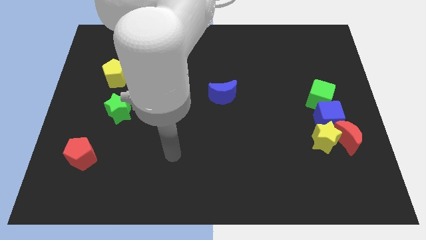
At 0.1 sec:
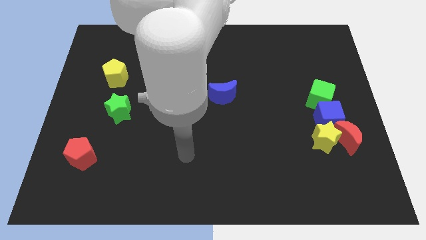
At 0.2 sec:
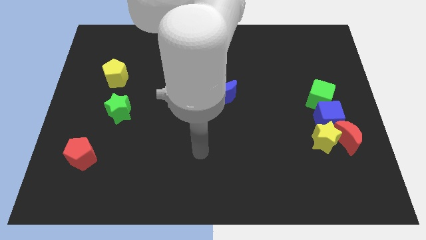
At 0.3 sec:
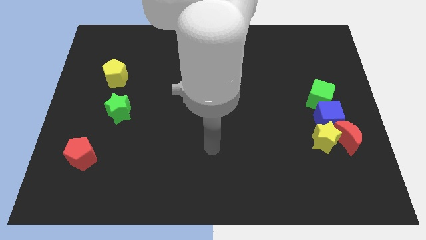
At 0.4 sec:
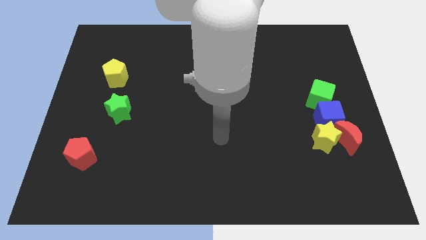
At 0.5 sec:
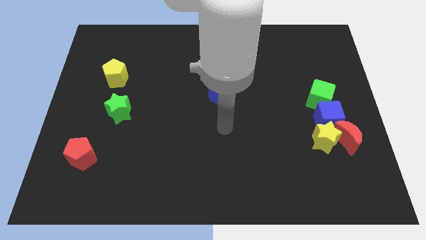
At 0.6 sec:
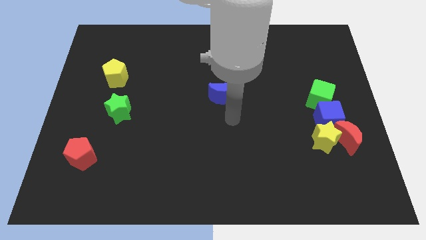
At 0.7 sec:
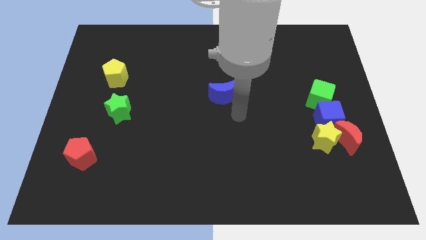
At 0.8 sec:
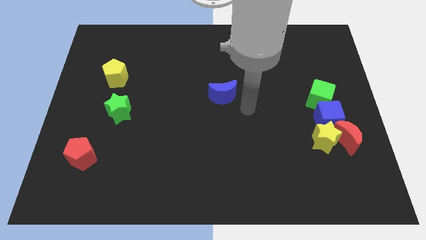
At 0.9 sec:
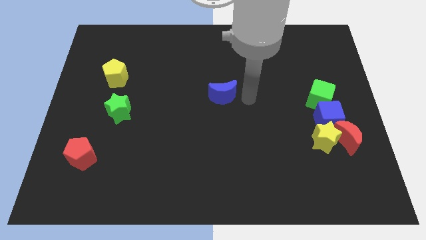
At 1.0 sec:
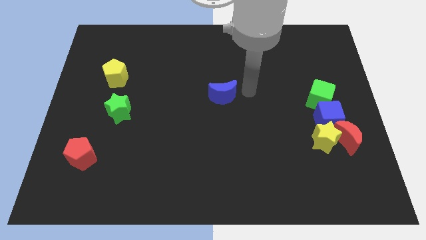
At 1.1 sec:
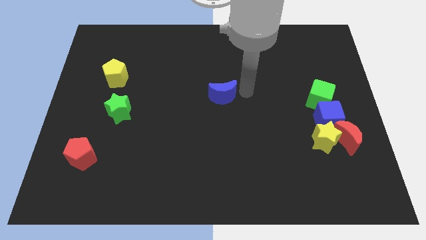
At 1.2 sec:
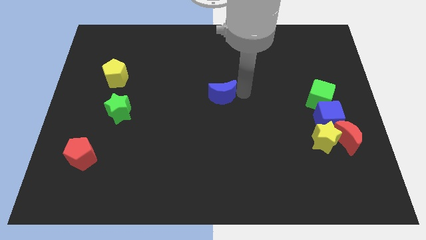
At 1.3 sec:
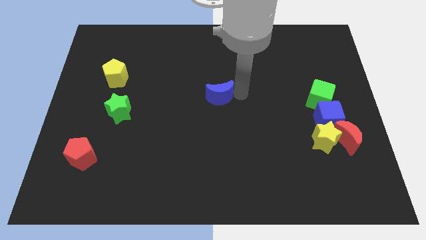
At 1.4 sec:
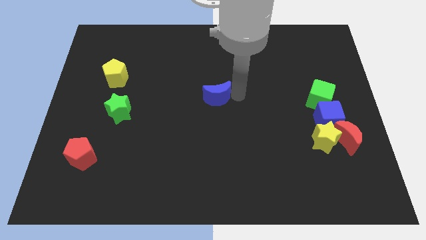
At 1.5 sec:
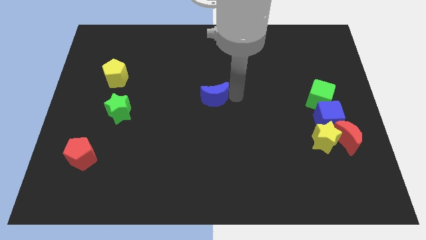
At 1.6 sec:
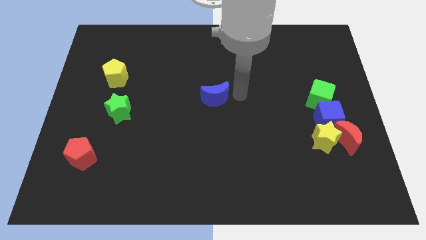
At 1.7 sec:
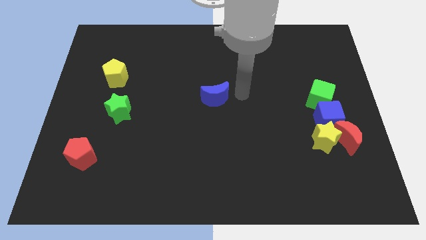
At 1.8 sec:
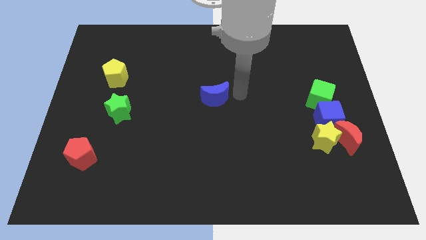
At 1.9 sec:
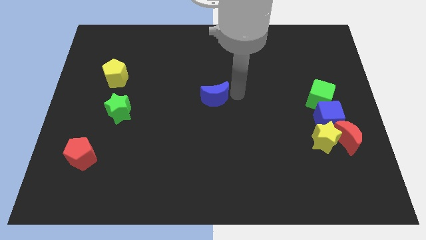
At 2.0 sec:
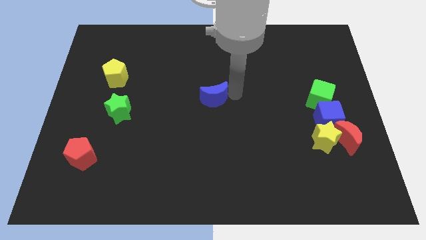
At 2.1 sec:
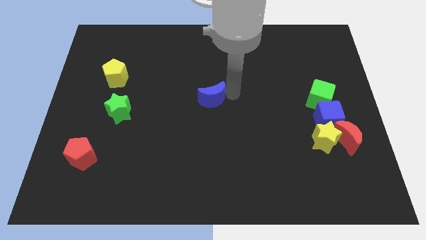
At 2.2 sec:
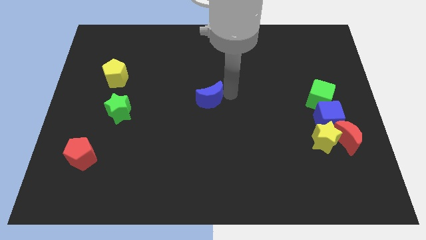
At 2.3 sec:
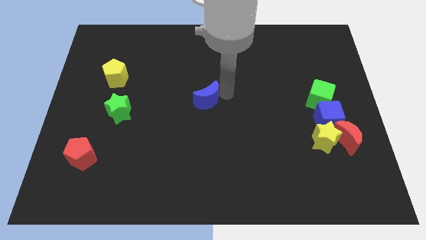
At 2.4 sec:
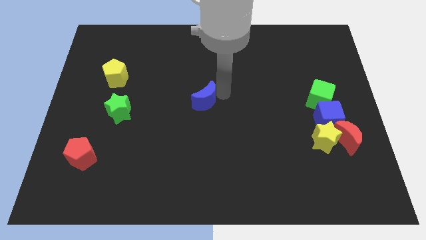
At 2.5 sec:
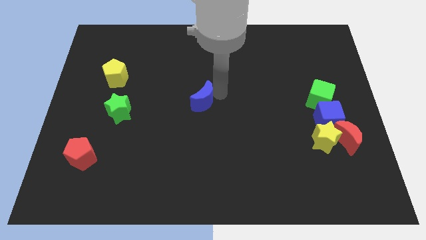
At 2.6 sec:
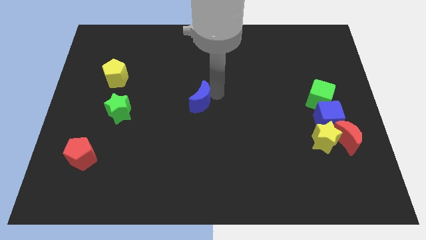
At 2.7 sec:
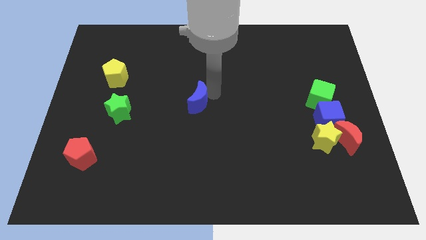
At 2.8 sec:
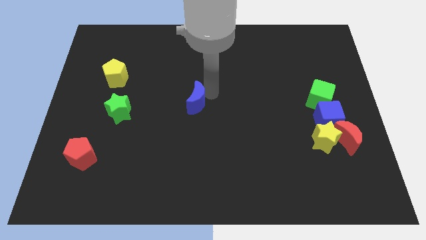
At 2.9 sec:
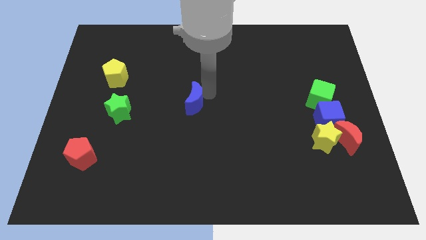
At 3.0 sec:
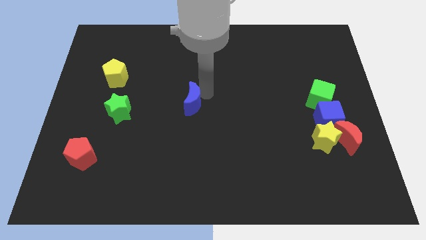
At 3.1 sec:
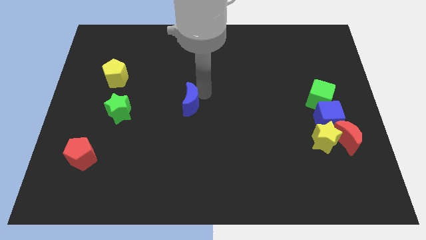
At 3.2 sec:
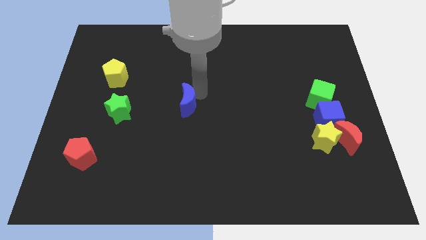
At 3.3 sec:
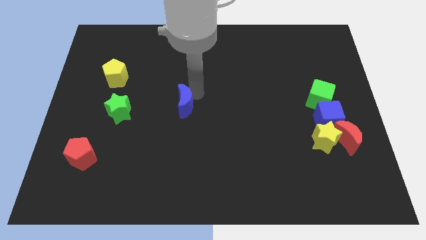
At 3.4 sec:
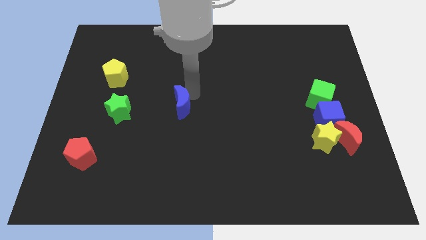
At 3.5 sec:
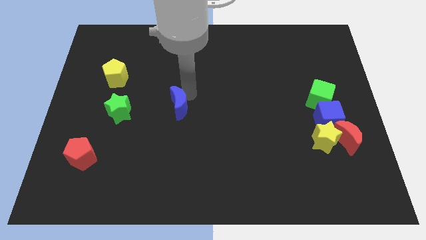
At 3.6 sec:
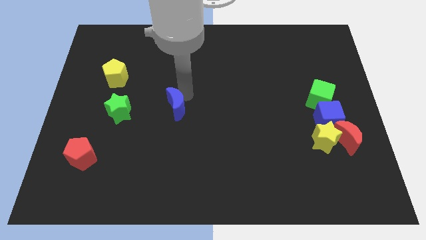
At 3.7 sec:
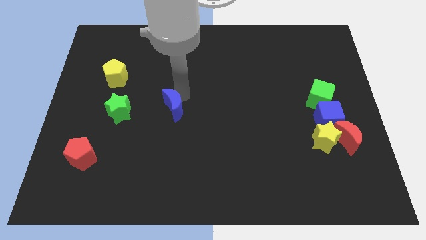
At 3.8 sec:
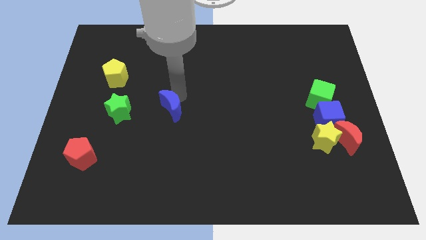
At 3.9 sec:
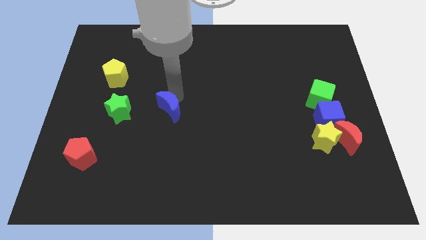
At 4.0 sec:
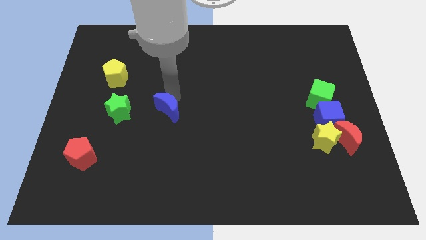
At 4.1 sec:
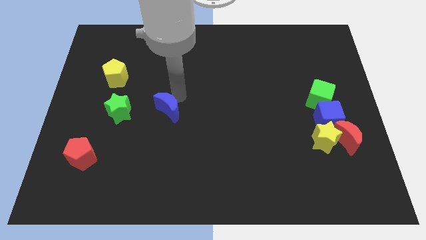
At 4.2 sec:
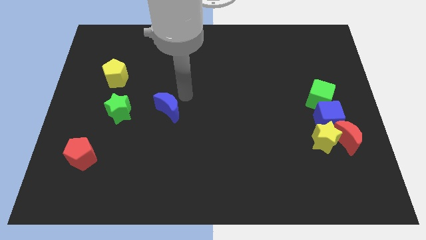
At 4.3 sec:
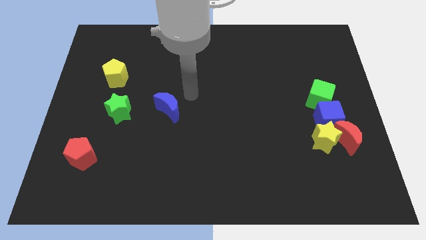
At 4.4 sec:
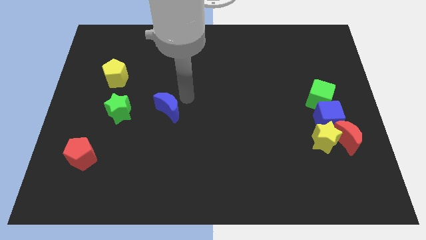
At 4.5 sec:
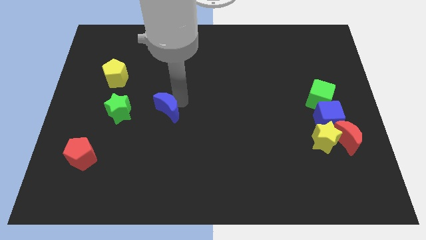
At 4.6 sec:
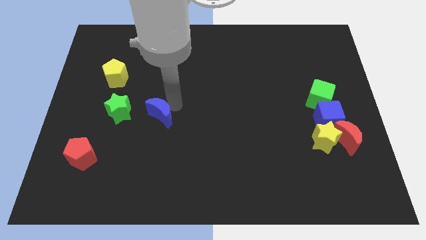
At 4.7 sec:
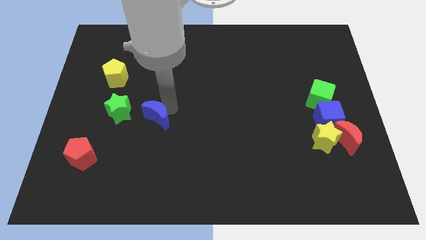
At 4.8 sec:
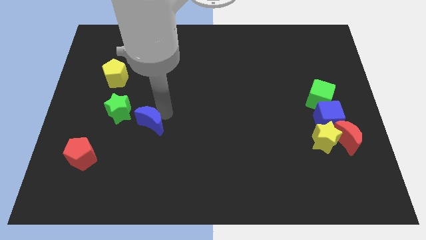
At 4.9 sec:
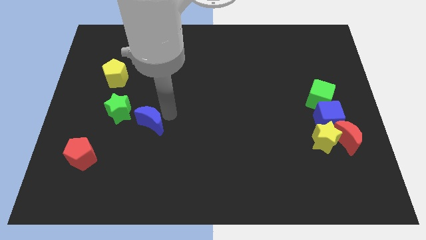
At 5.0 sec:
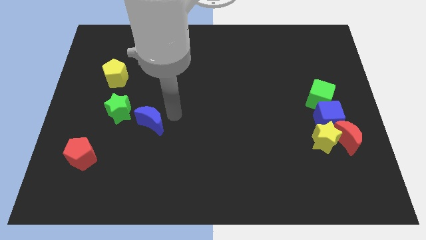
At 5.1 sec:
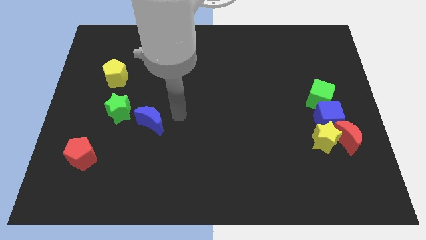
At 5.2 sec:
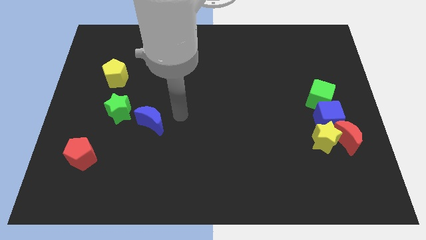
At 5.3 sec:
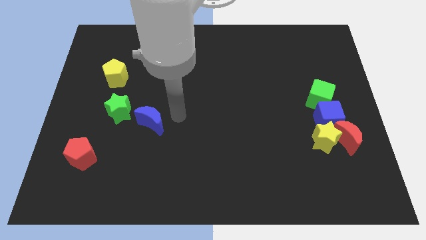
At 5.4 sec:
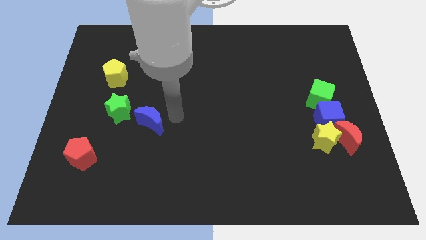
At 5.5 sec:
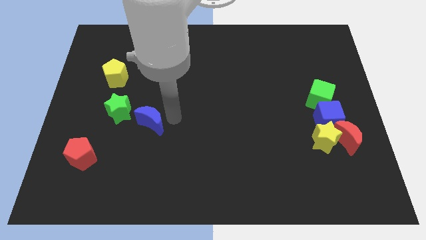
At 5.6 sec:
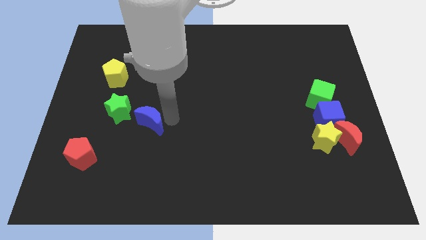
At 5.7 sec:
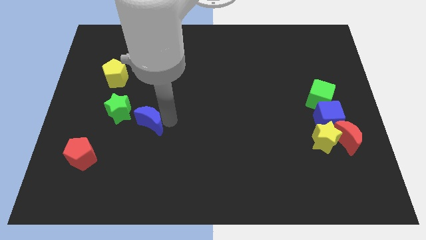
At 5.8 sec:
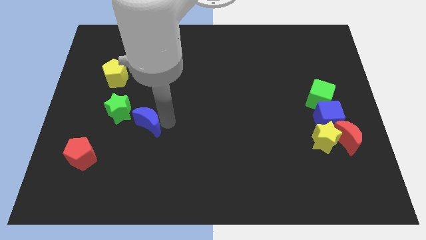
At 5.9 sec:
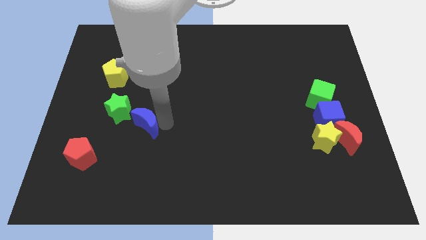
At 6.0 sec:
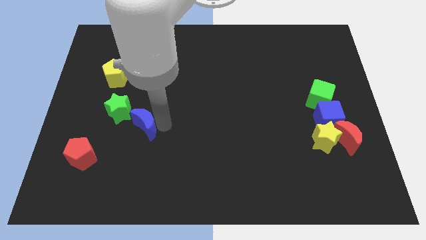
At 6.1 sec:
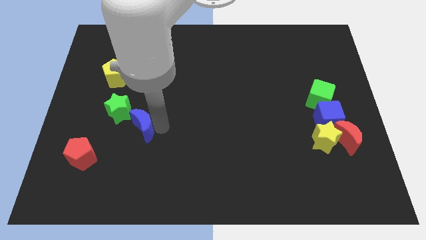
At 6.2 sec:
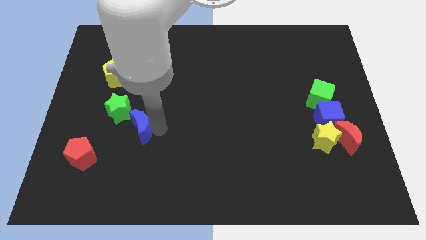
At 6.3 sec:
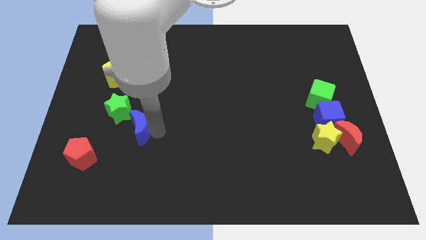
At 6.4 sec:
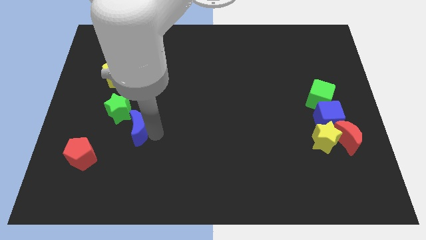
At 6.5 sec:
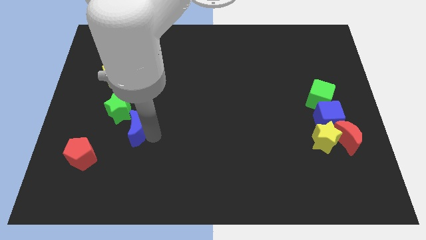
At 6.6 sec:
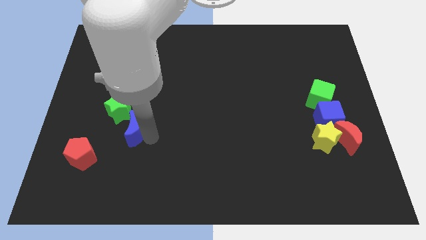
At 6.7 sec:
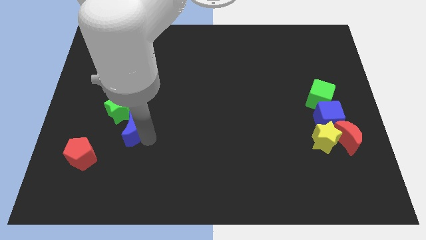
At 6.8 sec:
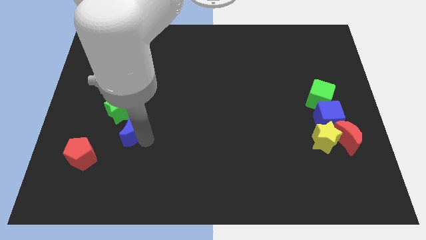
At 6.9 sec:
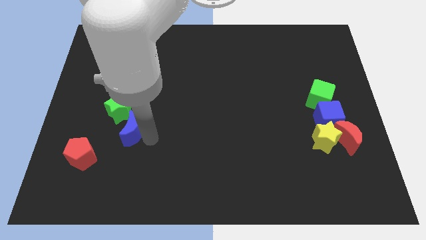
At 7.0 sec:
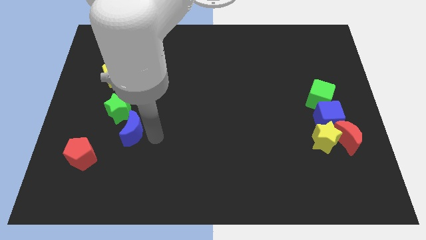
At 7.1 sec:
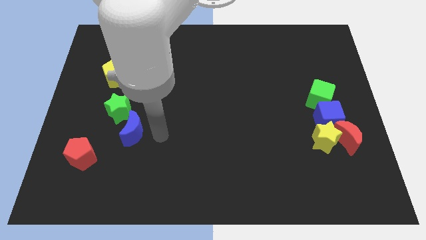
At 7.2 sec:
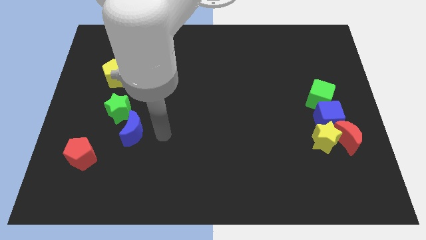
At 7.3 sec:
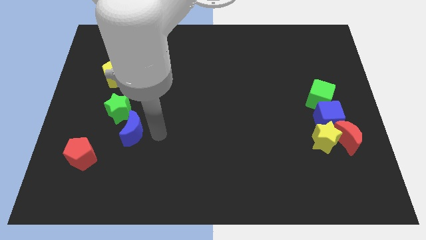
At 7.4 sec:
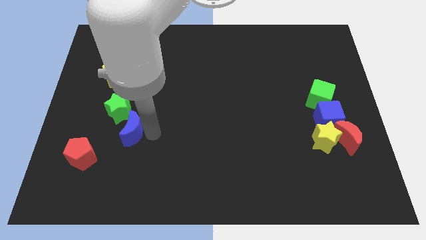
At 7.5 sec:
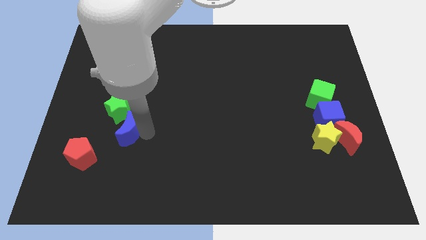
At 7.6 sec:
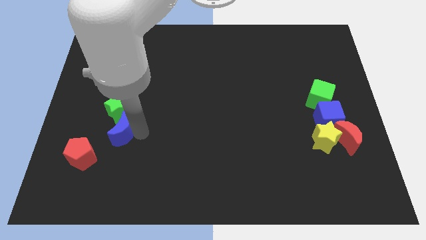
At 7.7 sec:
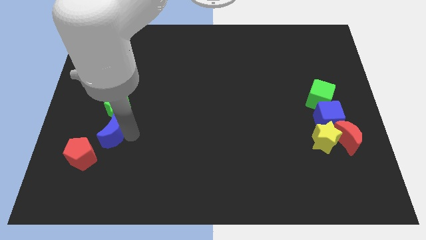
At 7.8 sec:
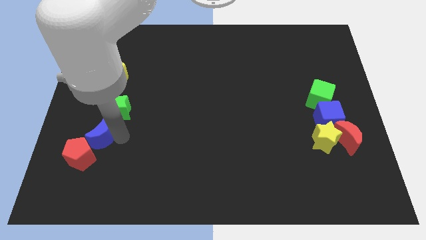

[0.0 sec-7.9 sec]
move the blue moon to the top of the red pentagon
